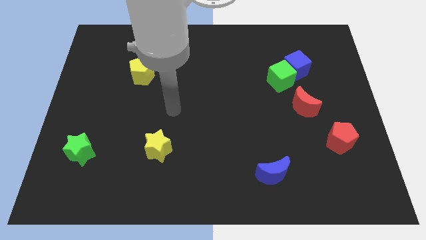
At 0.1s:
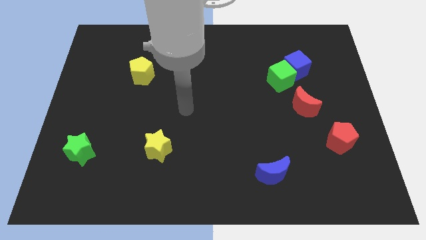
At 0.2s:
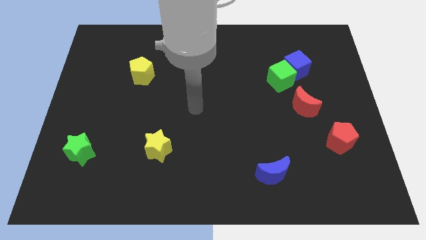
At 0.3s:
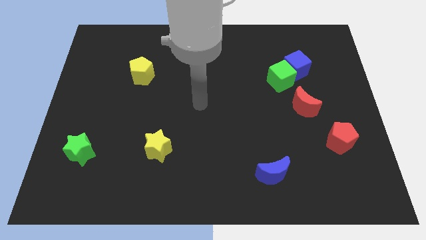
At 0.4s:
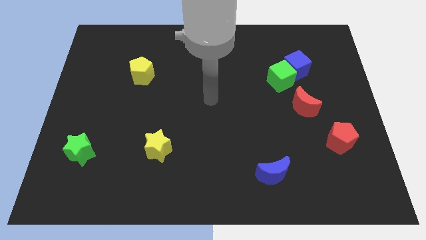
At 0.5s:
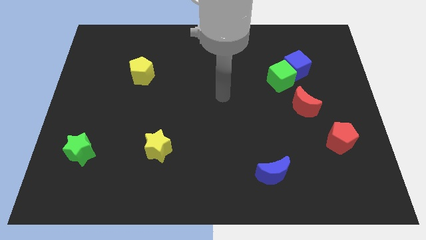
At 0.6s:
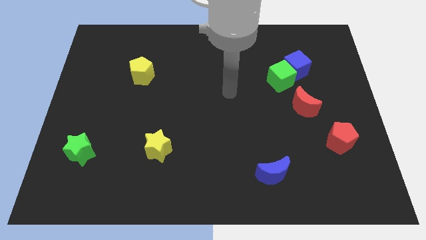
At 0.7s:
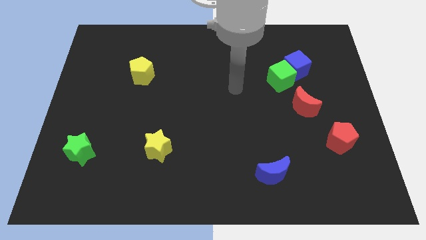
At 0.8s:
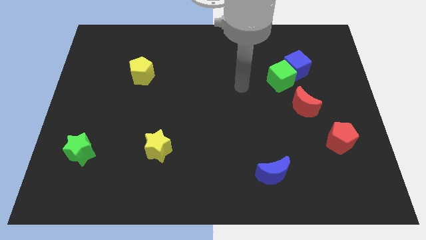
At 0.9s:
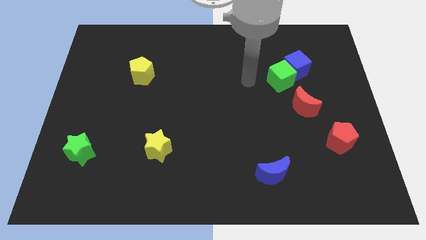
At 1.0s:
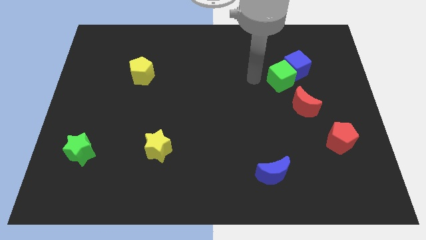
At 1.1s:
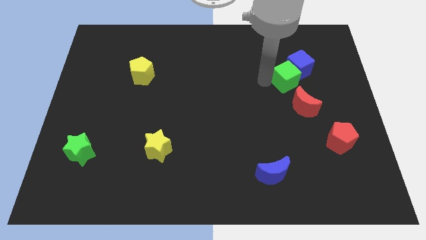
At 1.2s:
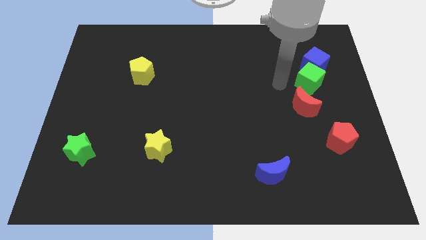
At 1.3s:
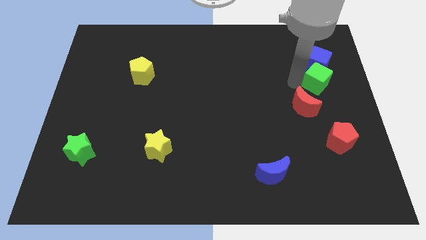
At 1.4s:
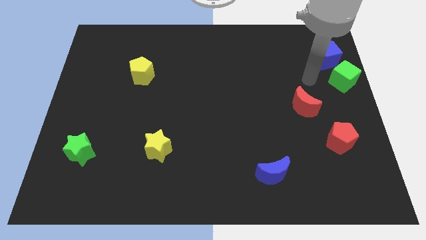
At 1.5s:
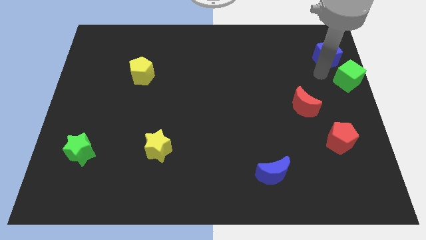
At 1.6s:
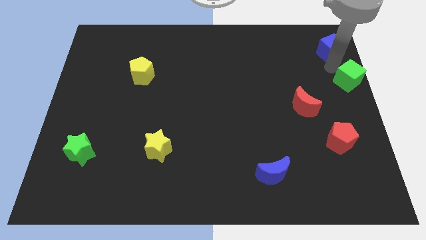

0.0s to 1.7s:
pull the blue cube apart from the green cube

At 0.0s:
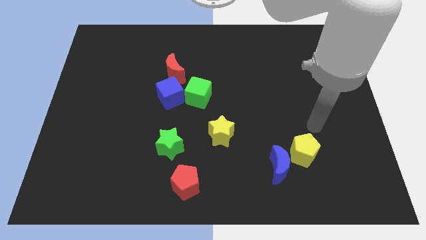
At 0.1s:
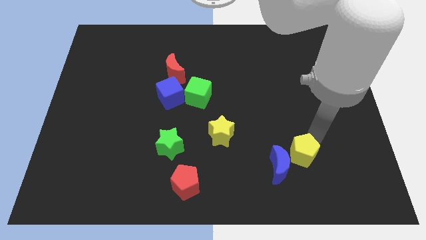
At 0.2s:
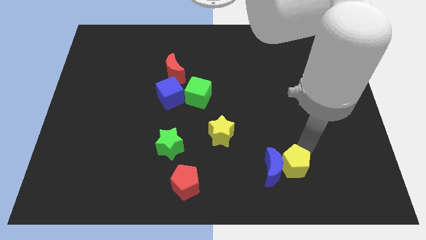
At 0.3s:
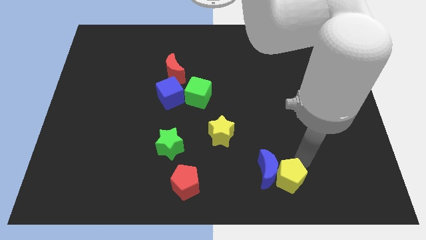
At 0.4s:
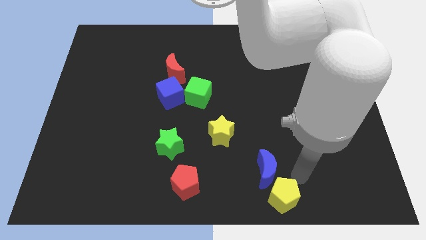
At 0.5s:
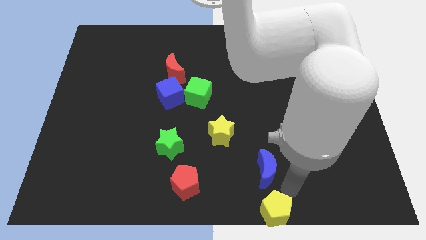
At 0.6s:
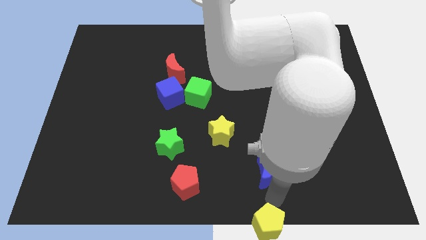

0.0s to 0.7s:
move the blue moon away from the yellow pentagon

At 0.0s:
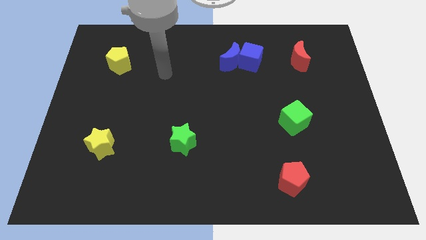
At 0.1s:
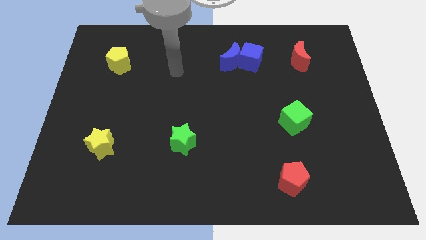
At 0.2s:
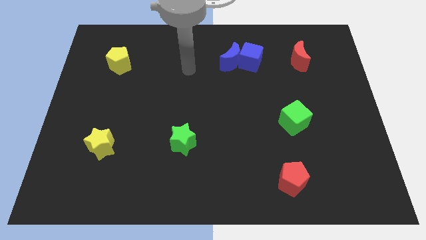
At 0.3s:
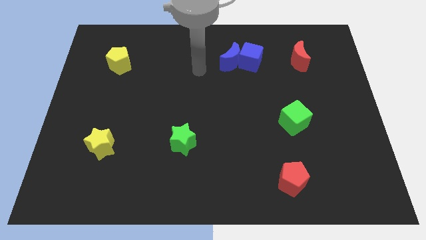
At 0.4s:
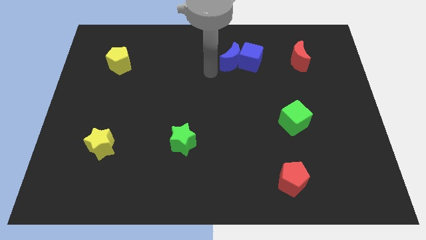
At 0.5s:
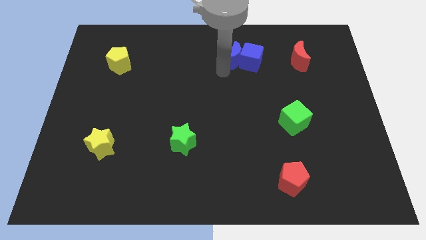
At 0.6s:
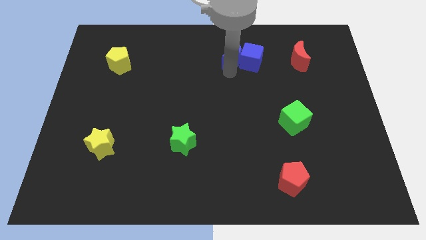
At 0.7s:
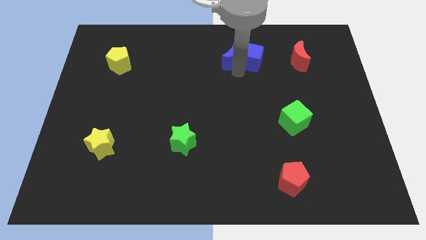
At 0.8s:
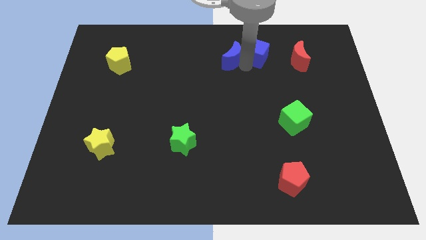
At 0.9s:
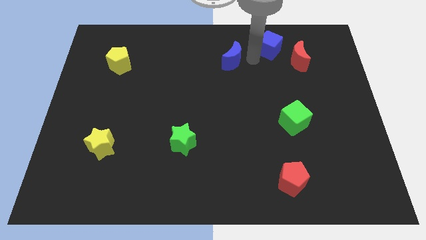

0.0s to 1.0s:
pull the blue moon apart from the blue cube

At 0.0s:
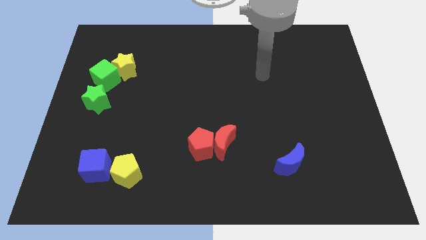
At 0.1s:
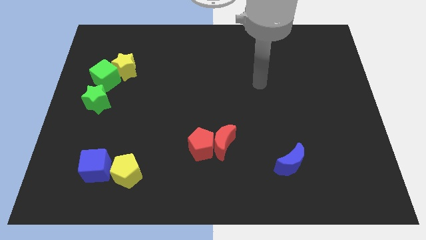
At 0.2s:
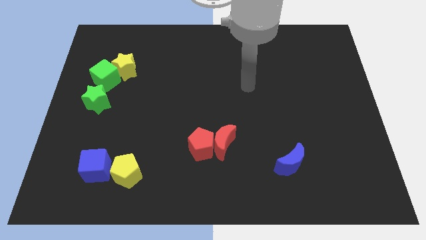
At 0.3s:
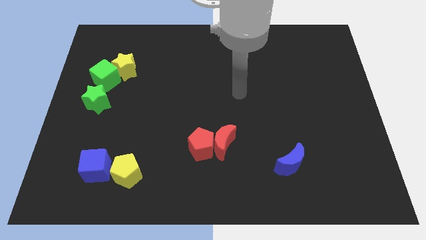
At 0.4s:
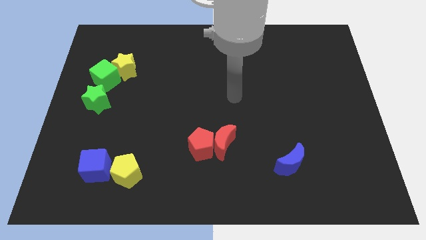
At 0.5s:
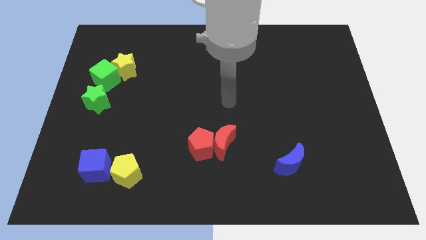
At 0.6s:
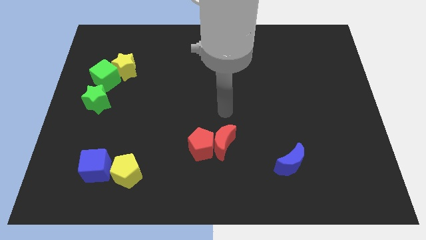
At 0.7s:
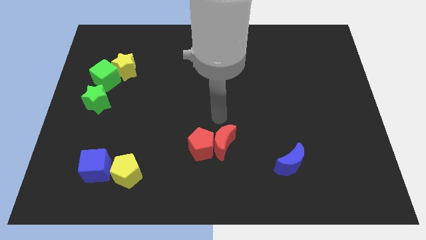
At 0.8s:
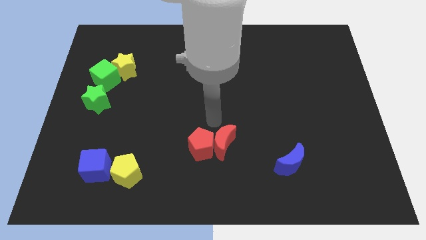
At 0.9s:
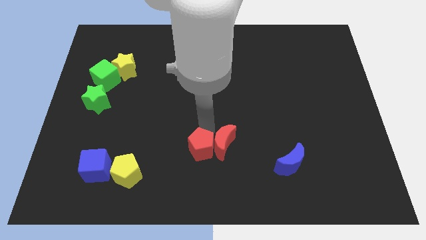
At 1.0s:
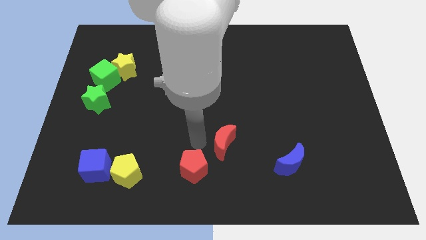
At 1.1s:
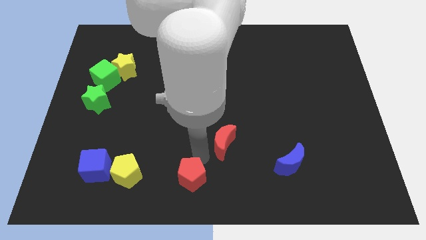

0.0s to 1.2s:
move the red moon away from the red pentagon

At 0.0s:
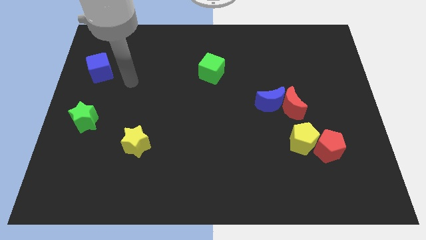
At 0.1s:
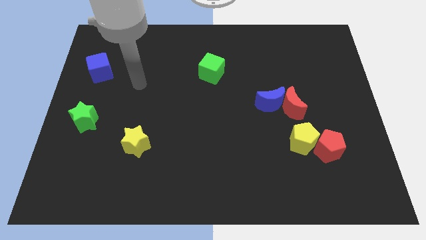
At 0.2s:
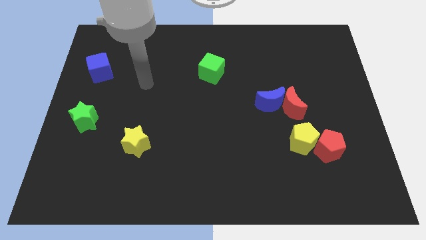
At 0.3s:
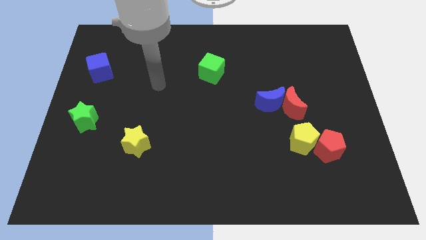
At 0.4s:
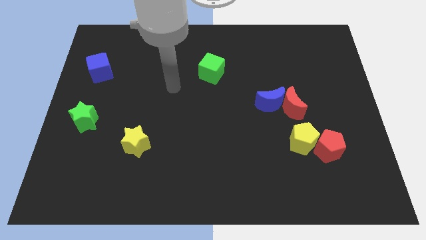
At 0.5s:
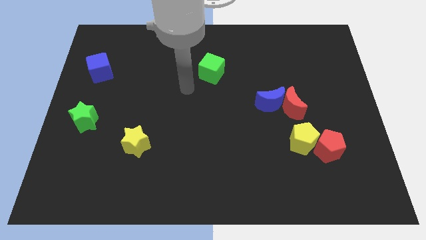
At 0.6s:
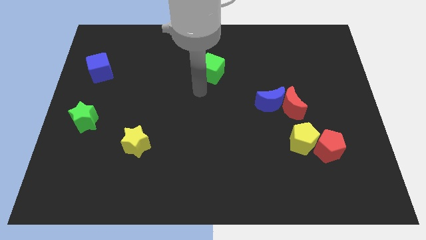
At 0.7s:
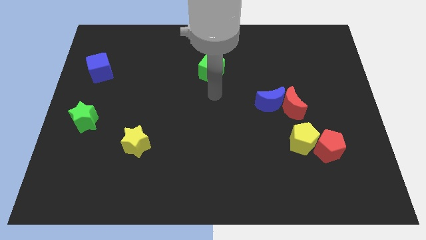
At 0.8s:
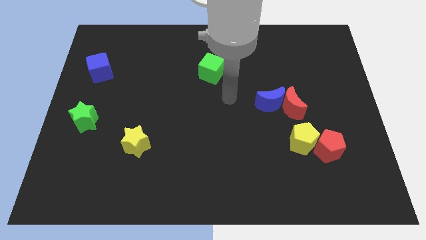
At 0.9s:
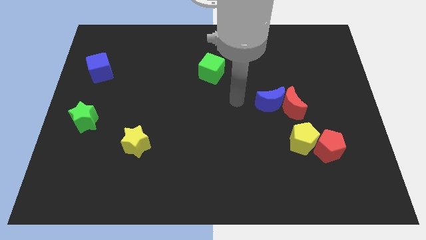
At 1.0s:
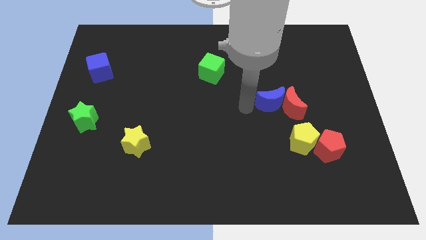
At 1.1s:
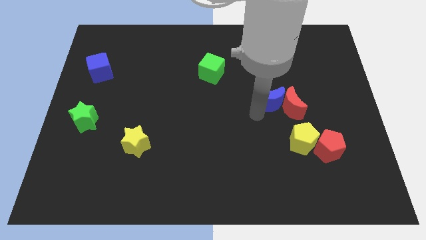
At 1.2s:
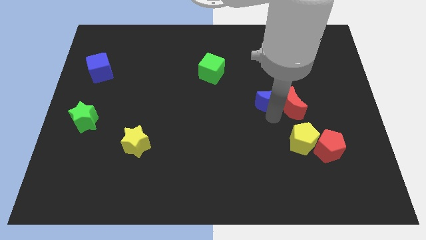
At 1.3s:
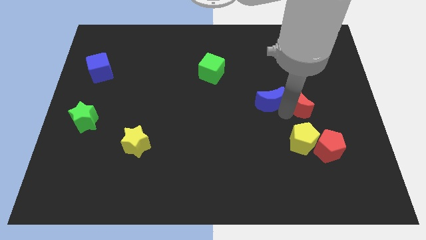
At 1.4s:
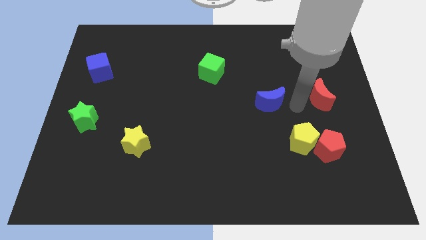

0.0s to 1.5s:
move the blue moon away from the red moon

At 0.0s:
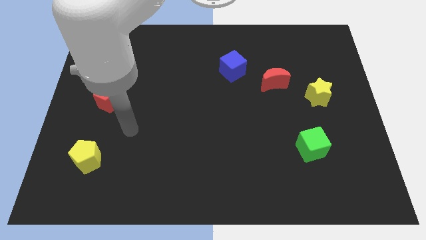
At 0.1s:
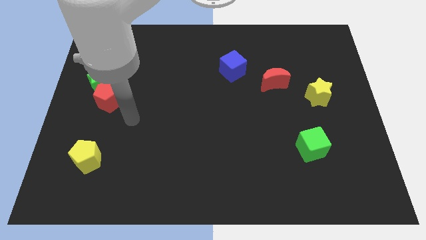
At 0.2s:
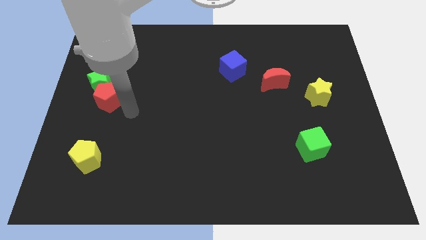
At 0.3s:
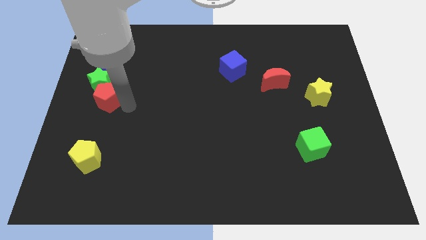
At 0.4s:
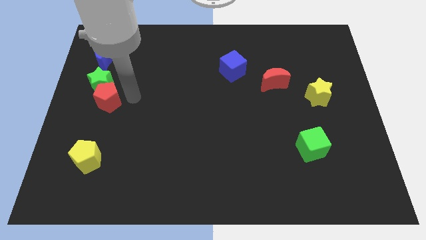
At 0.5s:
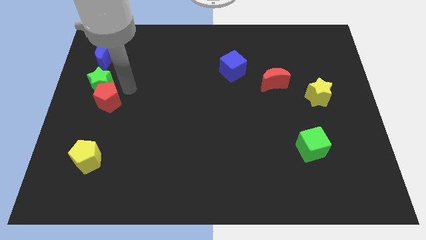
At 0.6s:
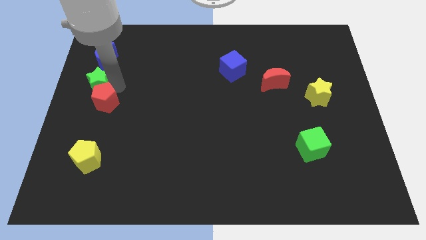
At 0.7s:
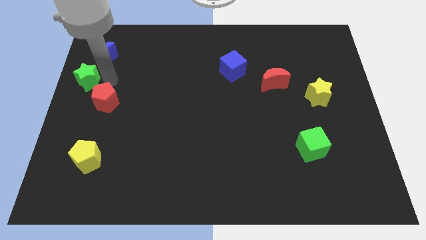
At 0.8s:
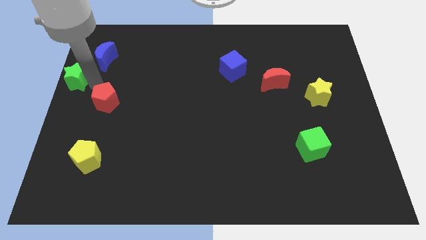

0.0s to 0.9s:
separate the red pentagon from the green star

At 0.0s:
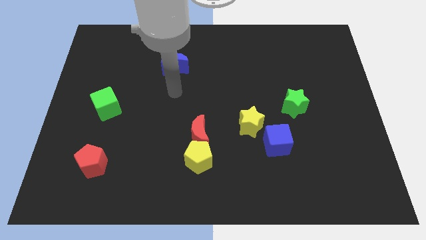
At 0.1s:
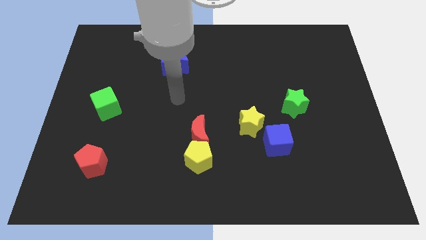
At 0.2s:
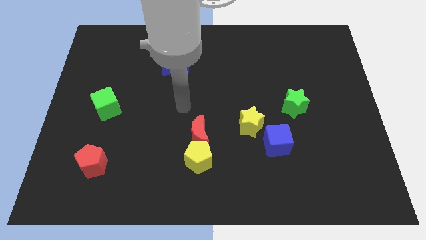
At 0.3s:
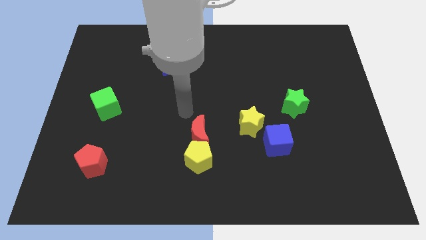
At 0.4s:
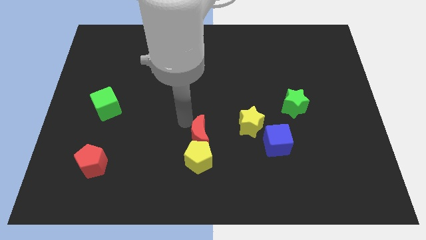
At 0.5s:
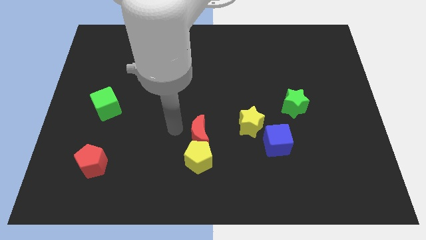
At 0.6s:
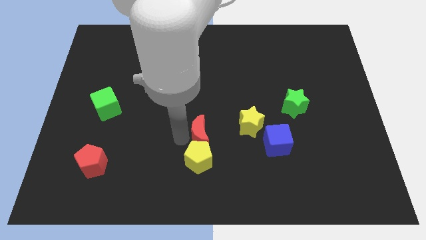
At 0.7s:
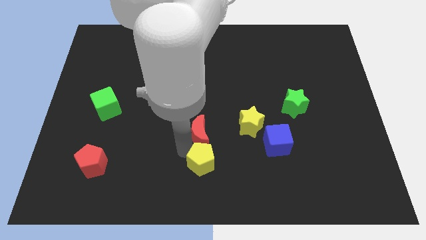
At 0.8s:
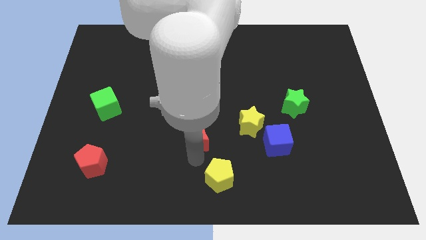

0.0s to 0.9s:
separate the red moon from the yellow pentagon

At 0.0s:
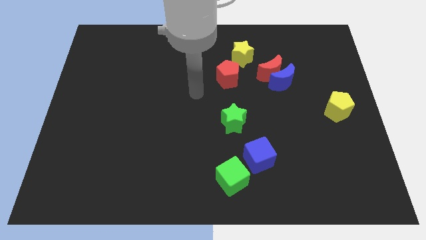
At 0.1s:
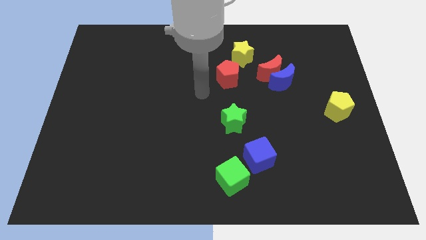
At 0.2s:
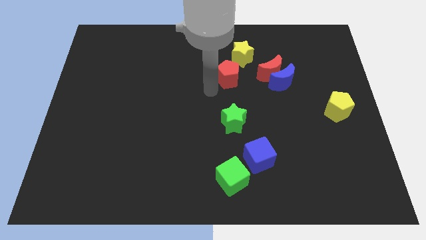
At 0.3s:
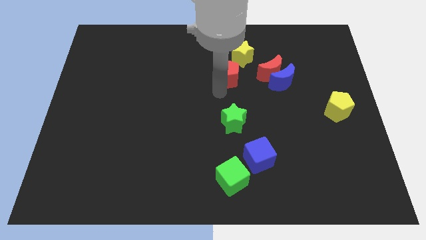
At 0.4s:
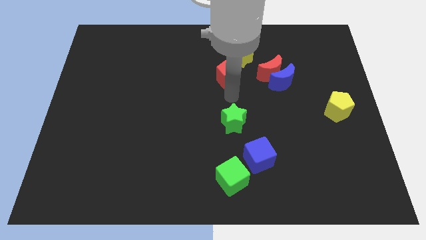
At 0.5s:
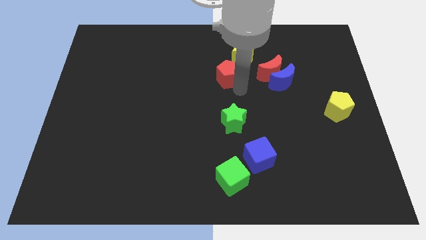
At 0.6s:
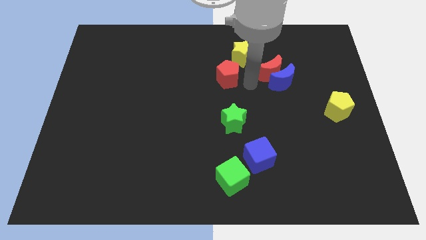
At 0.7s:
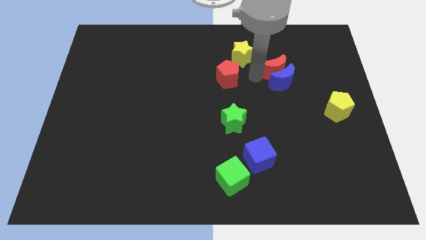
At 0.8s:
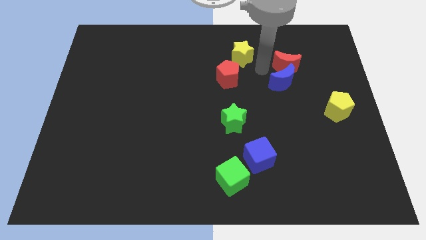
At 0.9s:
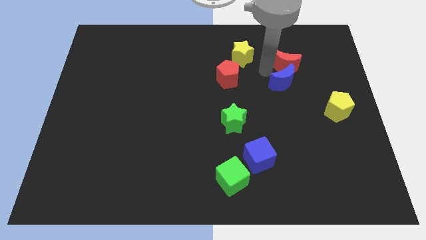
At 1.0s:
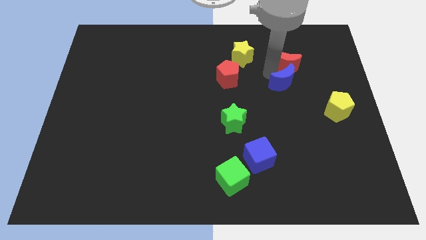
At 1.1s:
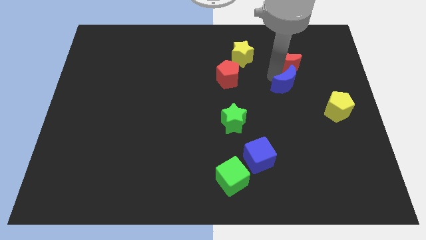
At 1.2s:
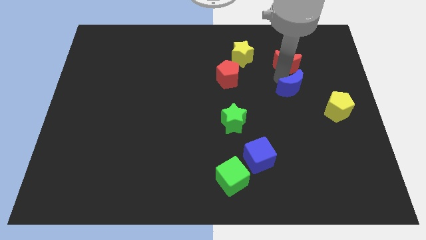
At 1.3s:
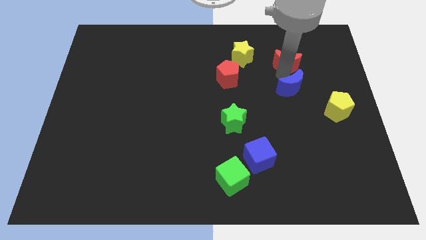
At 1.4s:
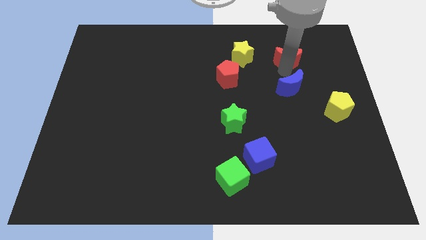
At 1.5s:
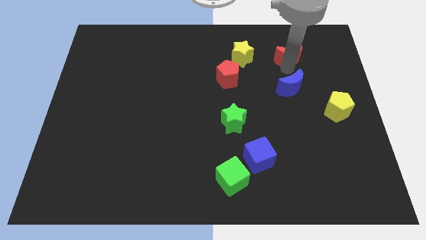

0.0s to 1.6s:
separate the blue moon from the red moon
